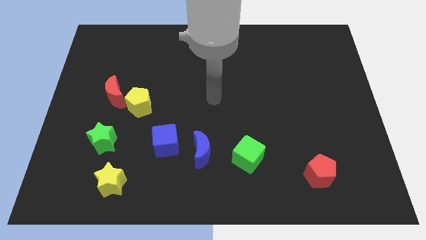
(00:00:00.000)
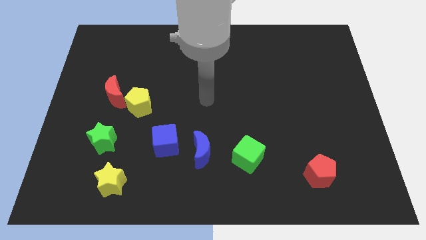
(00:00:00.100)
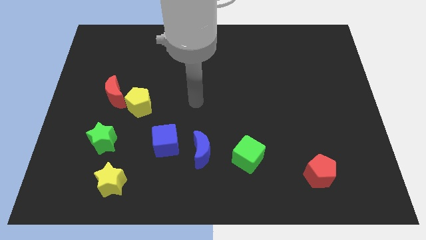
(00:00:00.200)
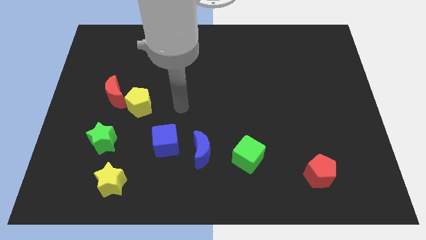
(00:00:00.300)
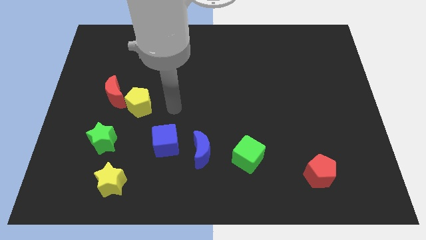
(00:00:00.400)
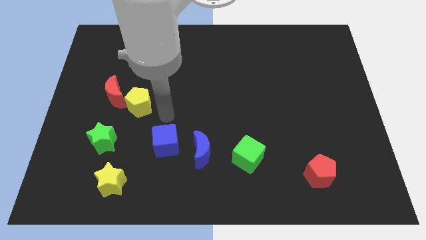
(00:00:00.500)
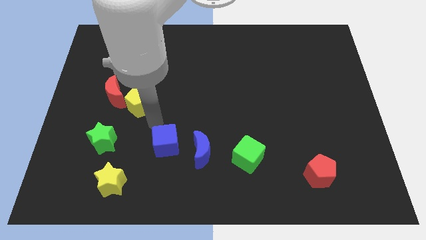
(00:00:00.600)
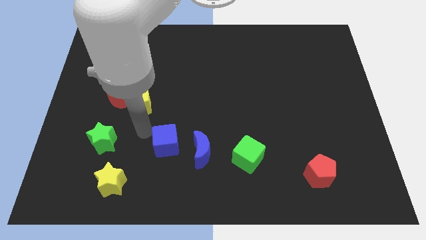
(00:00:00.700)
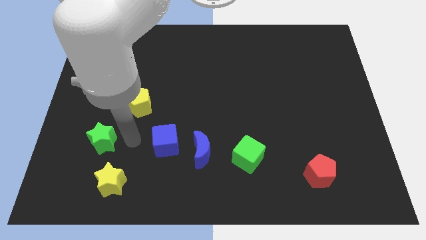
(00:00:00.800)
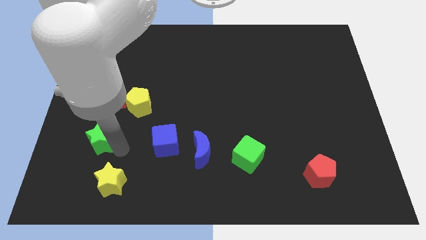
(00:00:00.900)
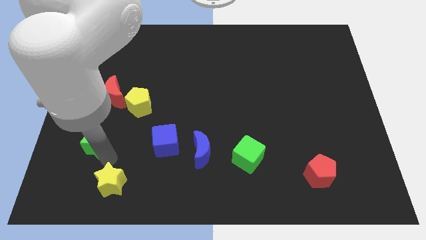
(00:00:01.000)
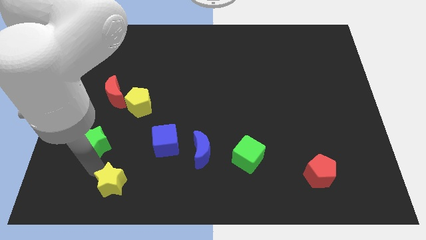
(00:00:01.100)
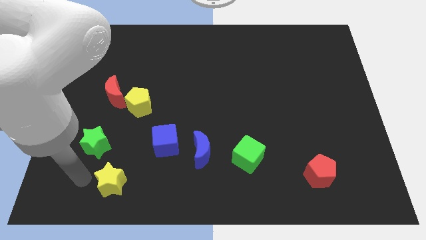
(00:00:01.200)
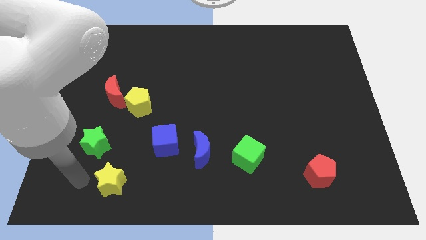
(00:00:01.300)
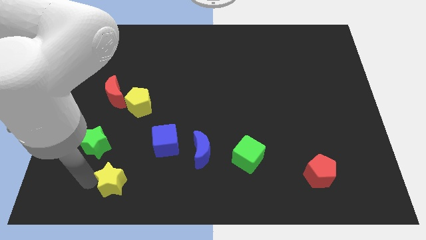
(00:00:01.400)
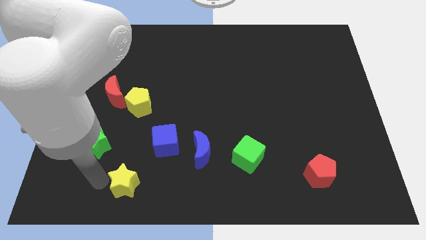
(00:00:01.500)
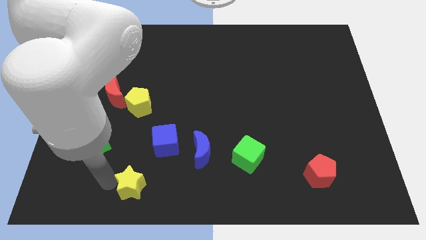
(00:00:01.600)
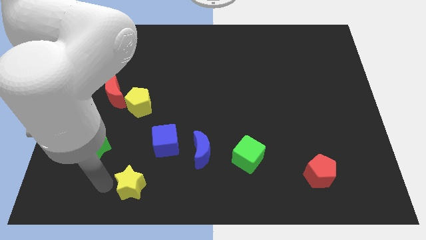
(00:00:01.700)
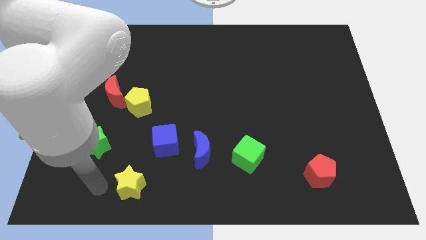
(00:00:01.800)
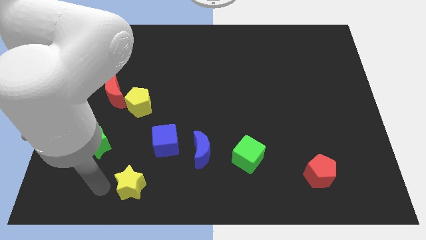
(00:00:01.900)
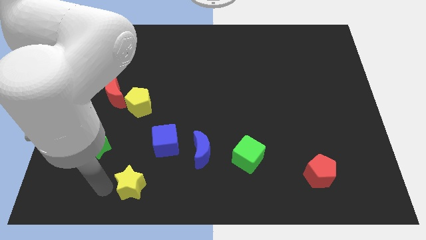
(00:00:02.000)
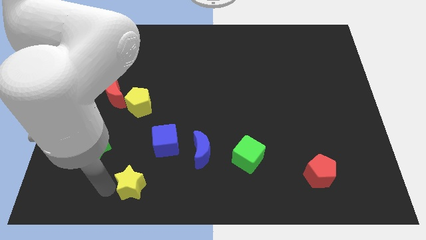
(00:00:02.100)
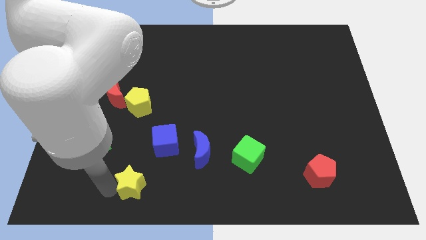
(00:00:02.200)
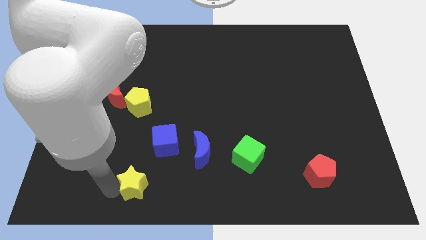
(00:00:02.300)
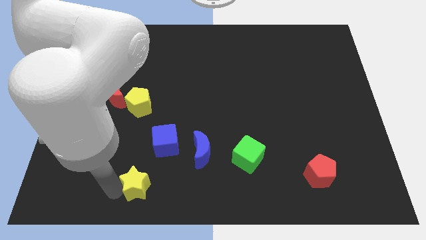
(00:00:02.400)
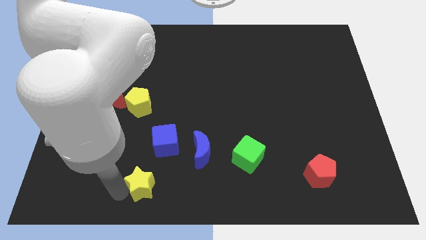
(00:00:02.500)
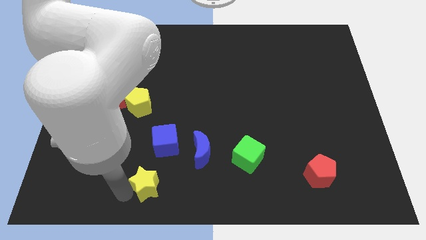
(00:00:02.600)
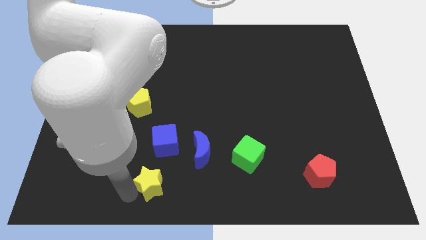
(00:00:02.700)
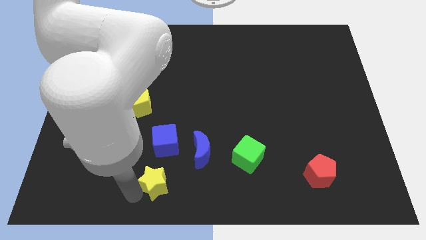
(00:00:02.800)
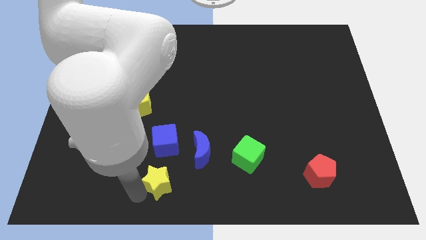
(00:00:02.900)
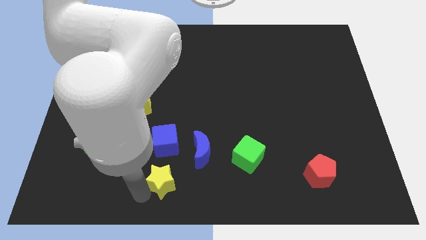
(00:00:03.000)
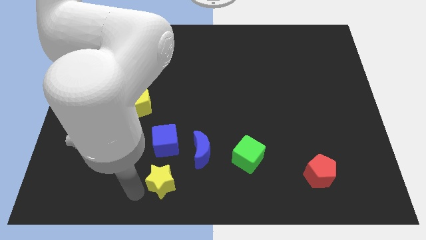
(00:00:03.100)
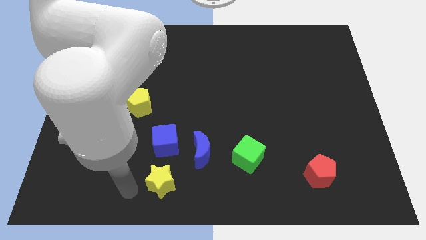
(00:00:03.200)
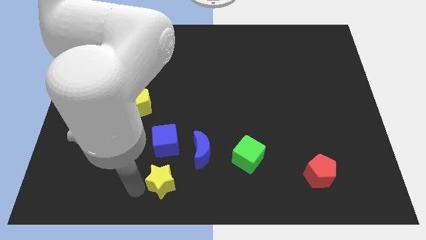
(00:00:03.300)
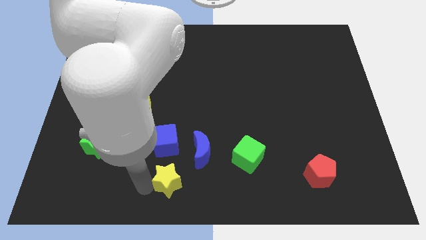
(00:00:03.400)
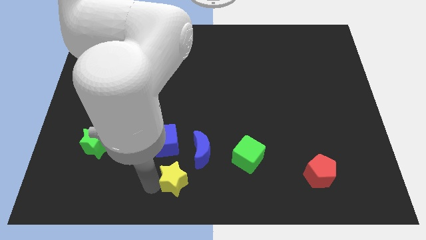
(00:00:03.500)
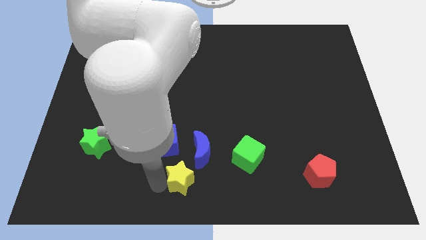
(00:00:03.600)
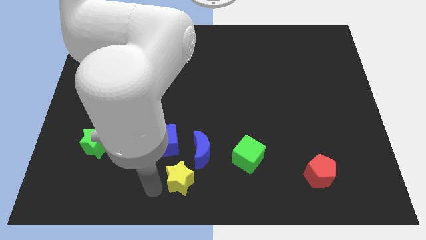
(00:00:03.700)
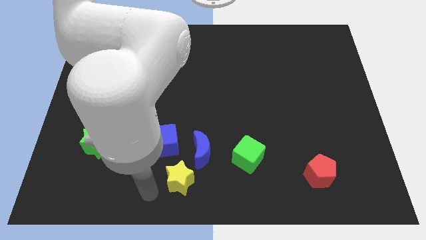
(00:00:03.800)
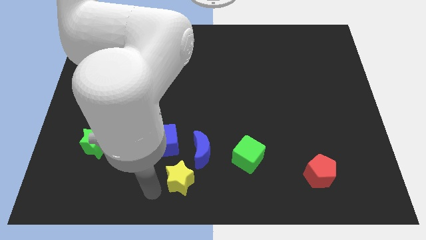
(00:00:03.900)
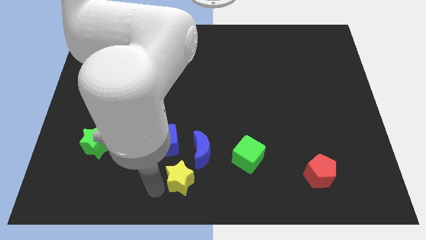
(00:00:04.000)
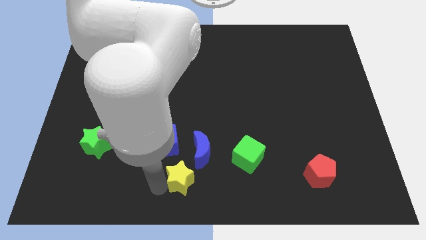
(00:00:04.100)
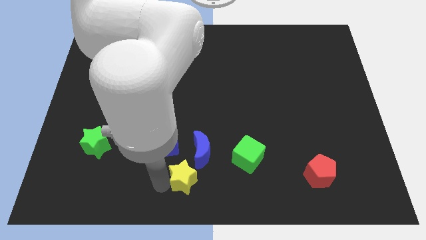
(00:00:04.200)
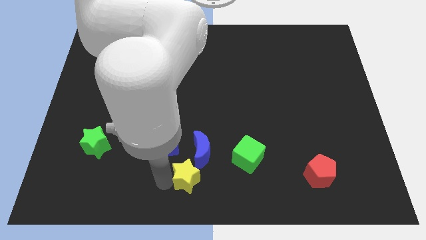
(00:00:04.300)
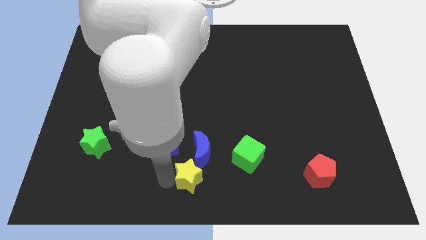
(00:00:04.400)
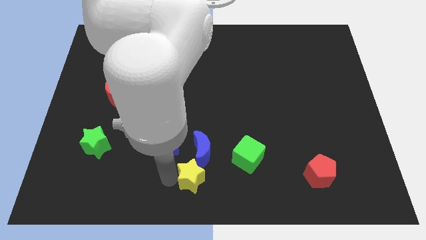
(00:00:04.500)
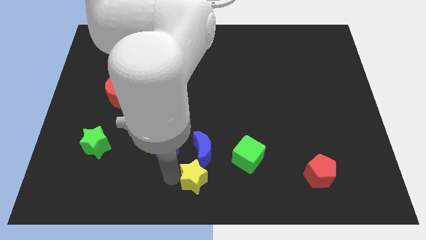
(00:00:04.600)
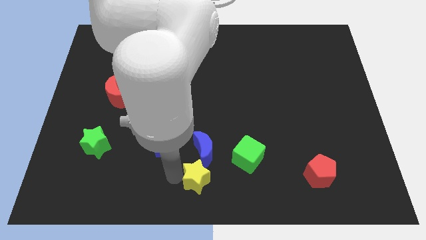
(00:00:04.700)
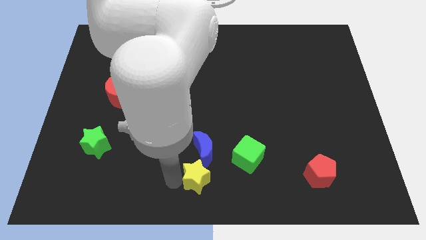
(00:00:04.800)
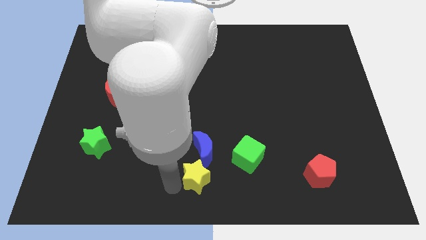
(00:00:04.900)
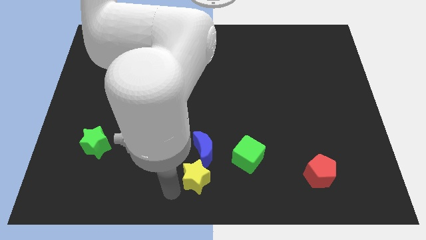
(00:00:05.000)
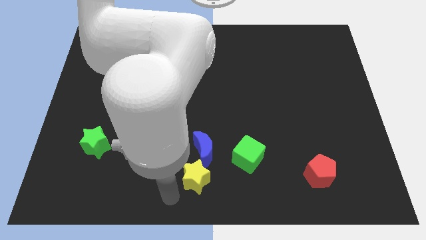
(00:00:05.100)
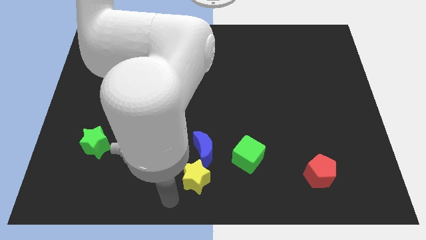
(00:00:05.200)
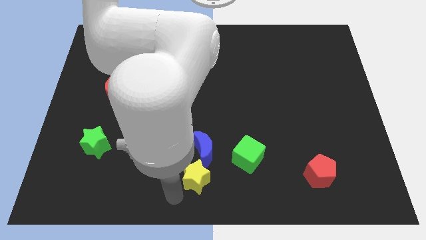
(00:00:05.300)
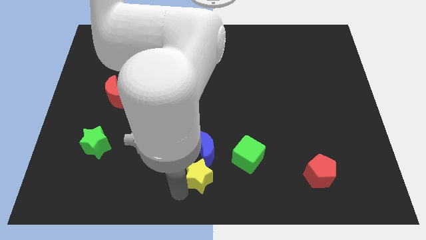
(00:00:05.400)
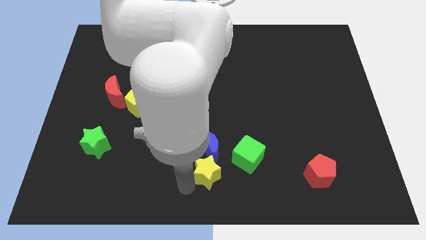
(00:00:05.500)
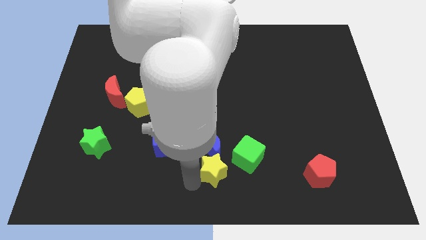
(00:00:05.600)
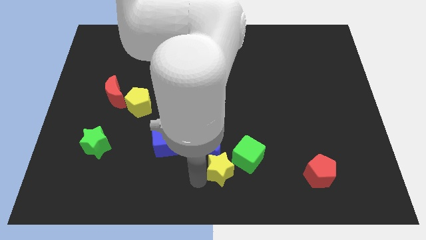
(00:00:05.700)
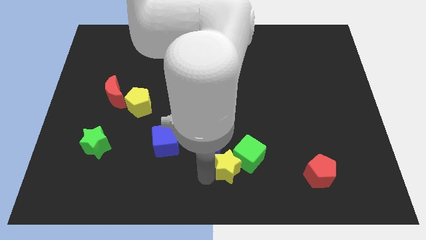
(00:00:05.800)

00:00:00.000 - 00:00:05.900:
push the yellow star towards the green cube
